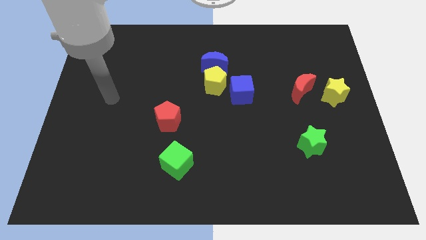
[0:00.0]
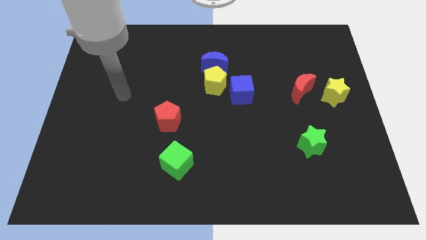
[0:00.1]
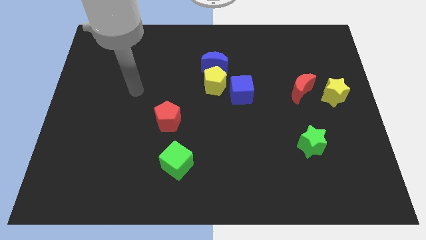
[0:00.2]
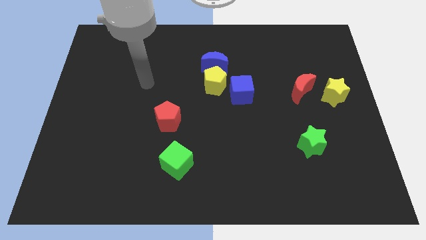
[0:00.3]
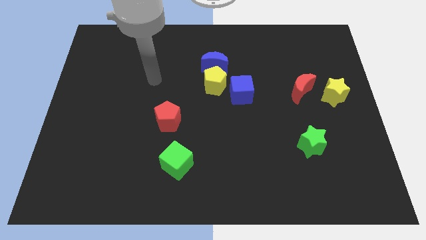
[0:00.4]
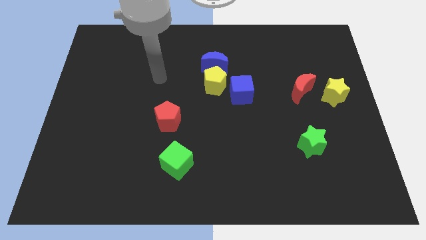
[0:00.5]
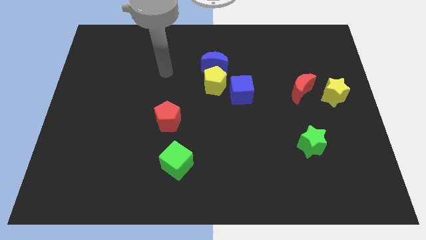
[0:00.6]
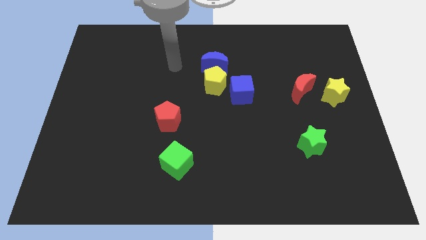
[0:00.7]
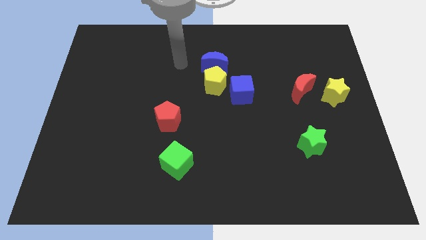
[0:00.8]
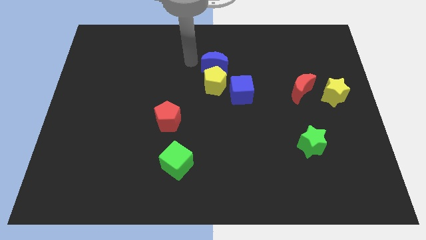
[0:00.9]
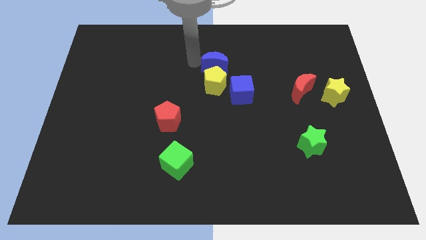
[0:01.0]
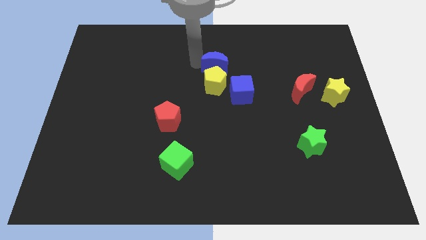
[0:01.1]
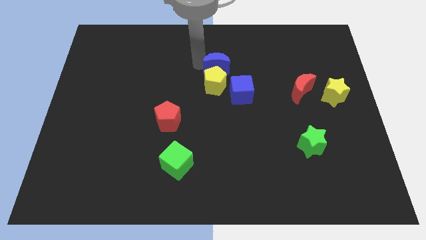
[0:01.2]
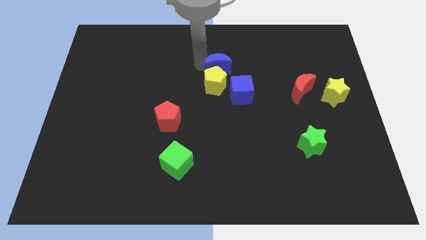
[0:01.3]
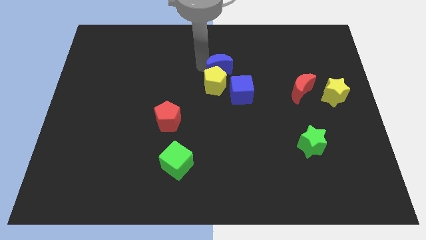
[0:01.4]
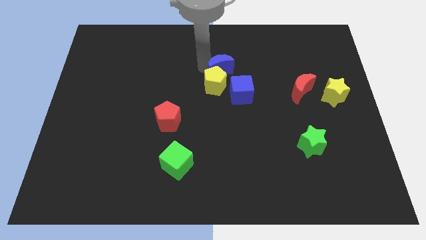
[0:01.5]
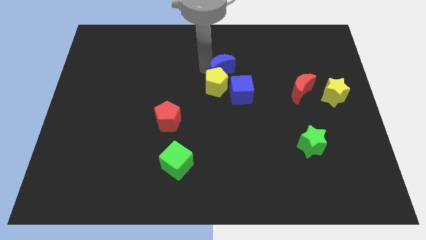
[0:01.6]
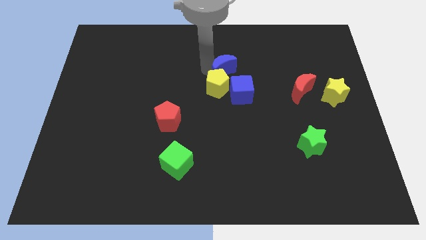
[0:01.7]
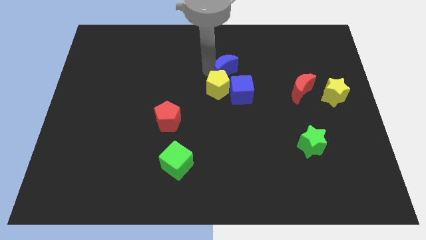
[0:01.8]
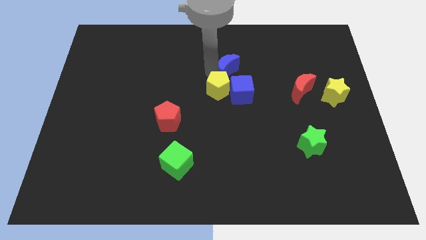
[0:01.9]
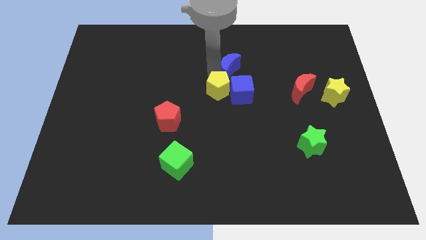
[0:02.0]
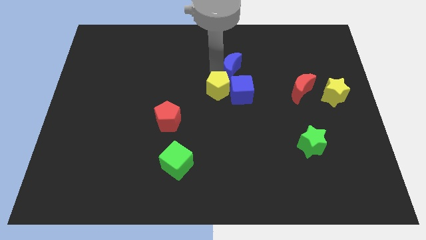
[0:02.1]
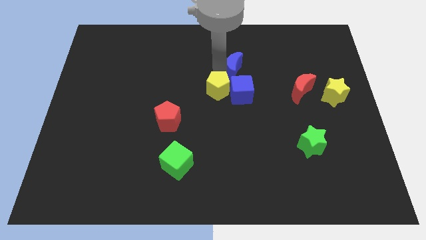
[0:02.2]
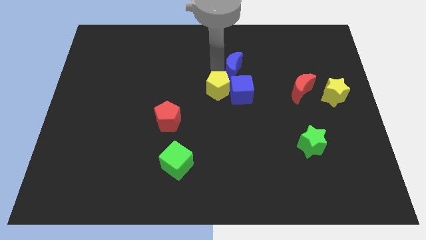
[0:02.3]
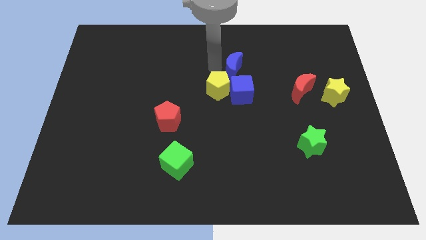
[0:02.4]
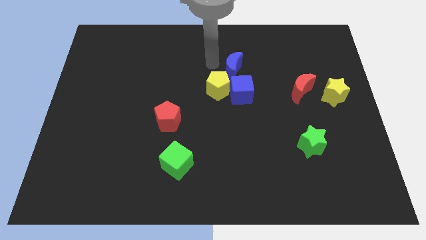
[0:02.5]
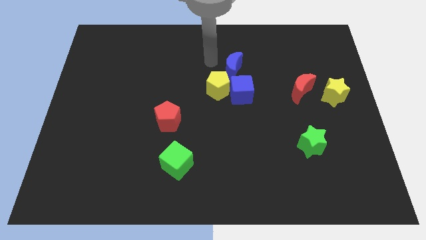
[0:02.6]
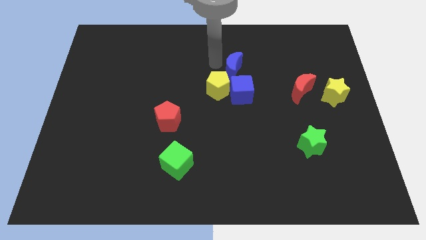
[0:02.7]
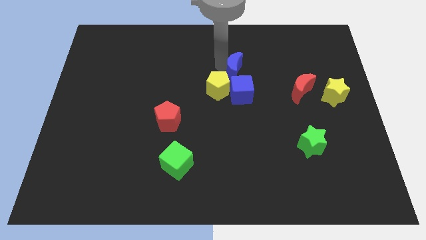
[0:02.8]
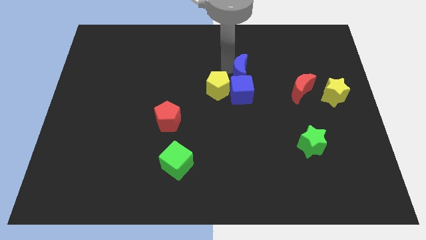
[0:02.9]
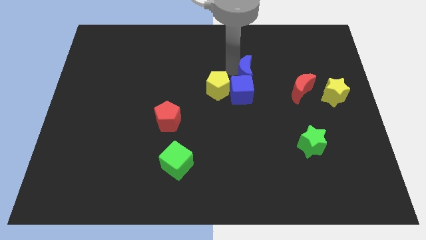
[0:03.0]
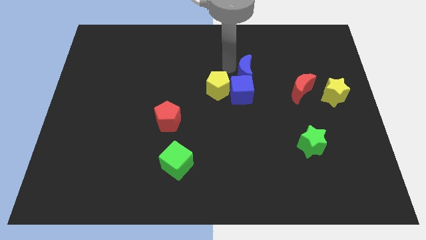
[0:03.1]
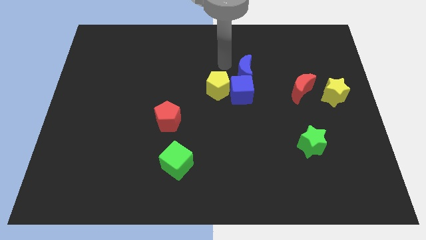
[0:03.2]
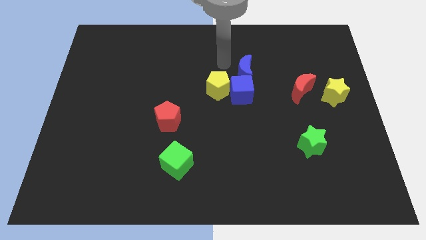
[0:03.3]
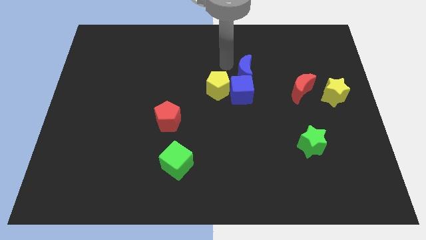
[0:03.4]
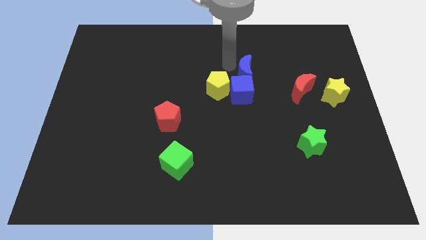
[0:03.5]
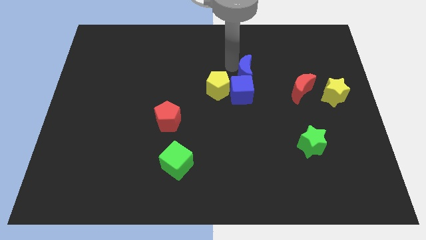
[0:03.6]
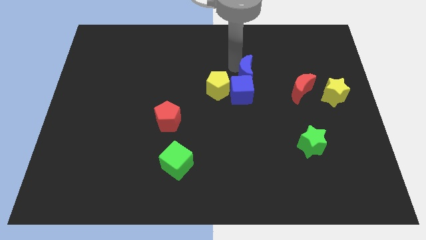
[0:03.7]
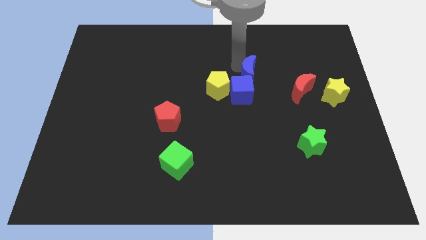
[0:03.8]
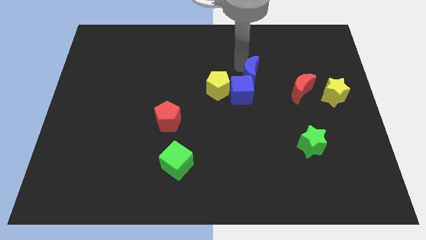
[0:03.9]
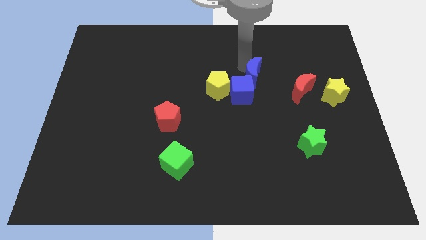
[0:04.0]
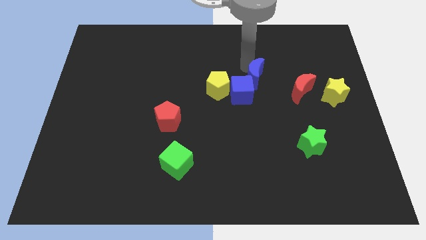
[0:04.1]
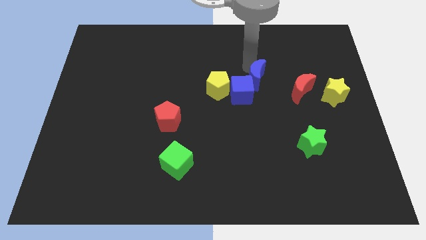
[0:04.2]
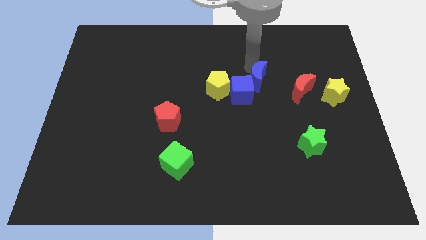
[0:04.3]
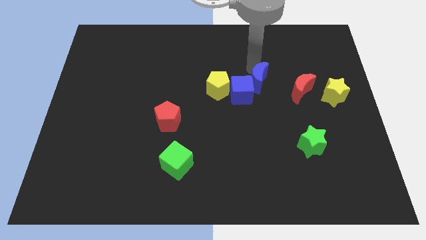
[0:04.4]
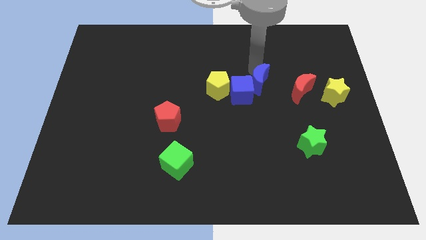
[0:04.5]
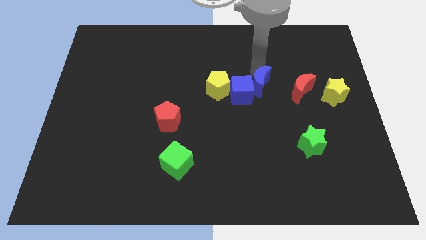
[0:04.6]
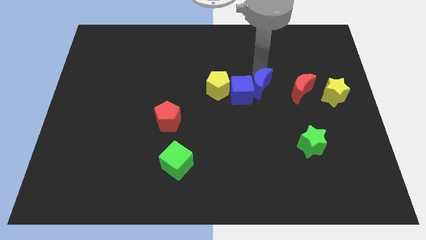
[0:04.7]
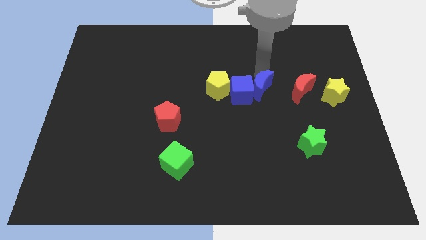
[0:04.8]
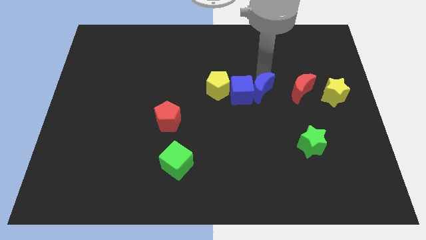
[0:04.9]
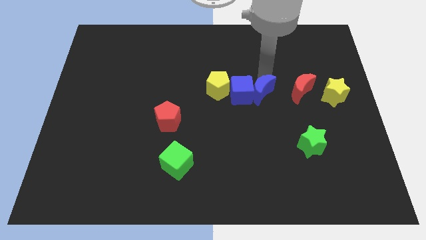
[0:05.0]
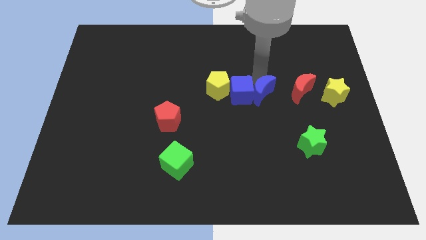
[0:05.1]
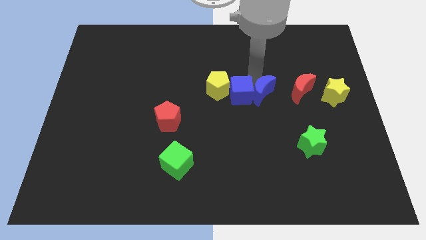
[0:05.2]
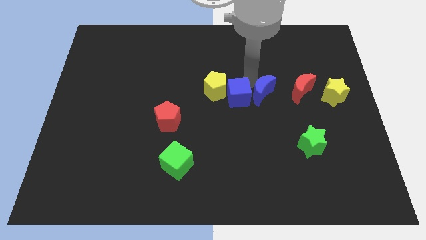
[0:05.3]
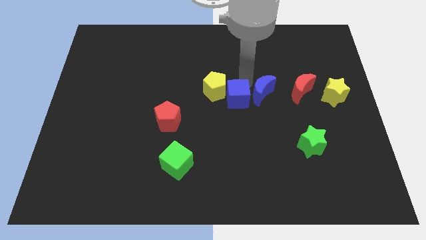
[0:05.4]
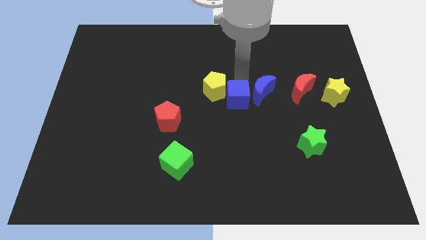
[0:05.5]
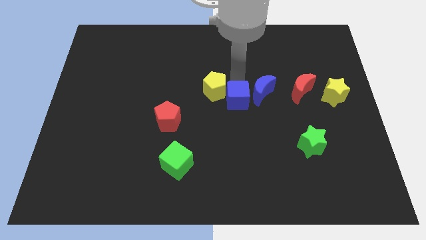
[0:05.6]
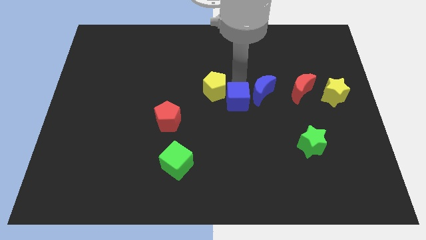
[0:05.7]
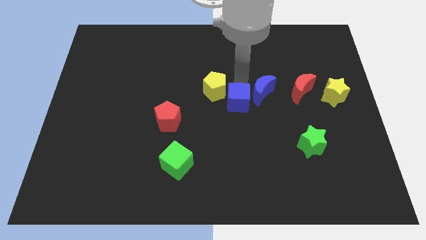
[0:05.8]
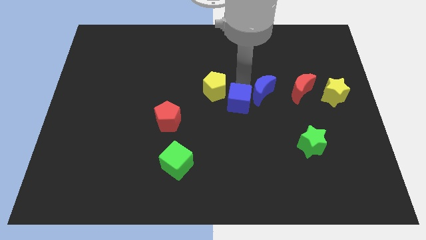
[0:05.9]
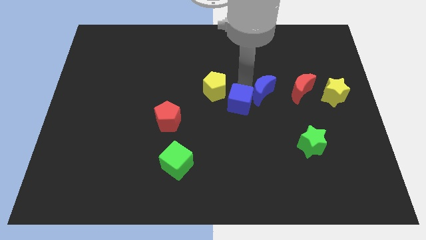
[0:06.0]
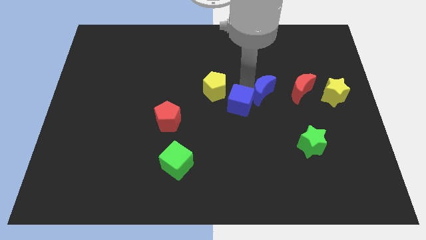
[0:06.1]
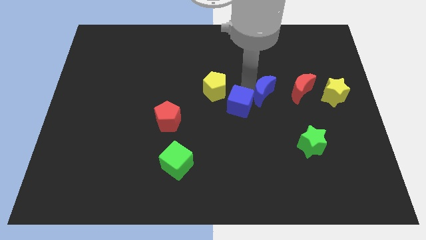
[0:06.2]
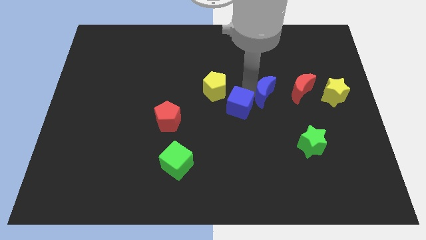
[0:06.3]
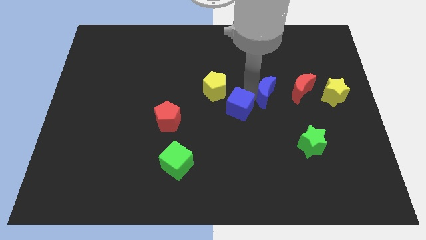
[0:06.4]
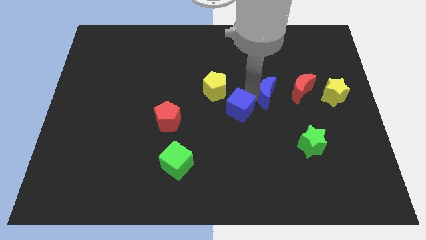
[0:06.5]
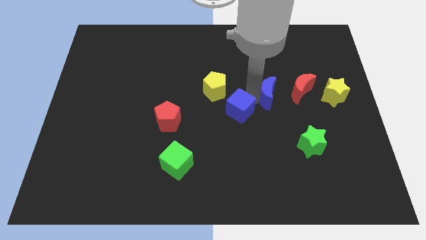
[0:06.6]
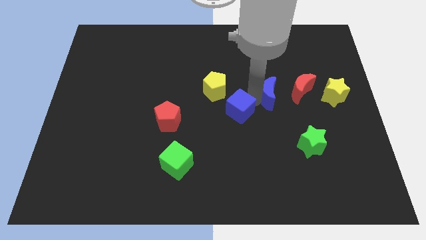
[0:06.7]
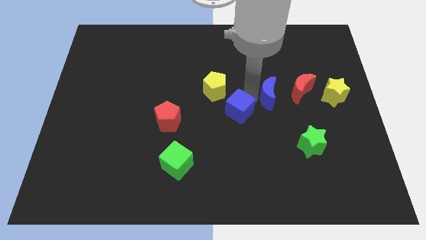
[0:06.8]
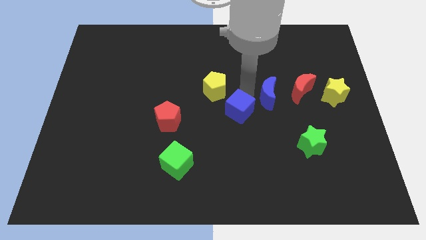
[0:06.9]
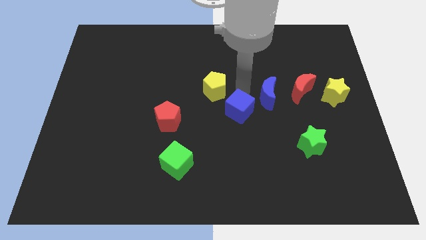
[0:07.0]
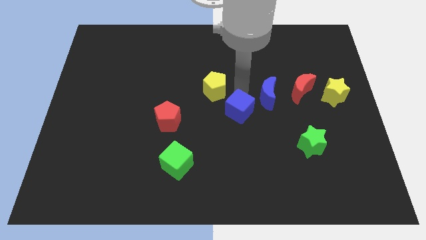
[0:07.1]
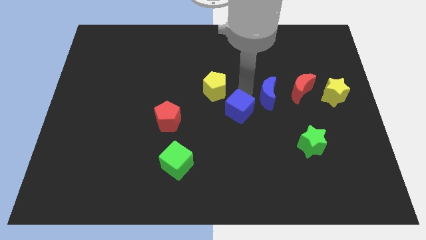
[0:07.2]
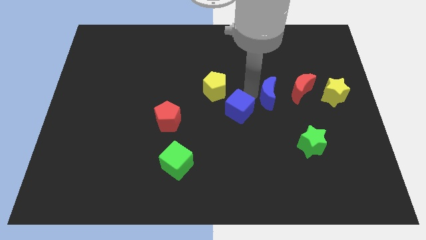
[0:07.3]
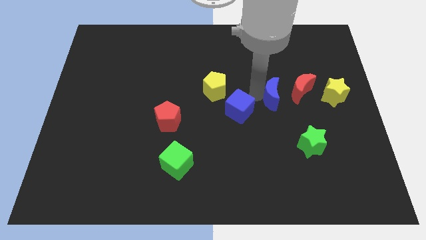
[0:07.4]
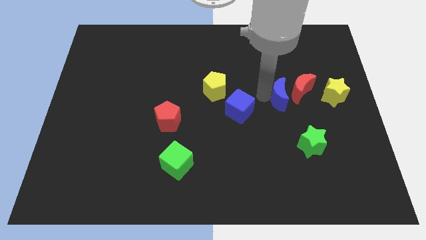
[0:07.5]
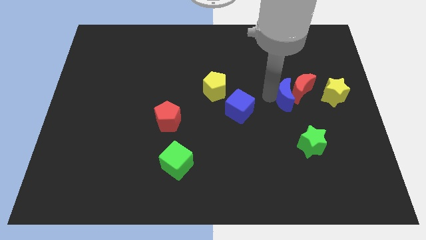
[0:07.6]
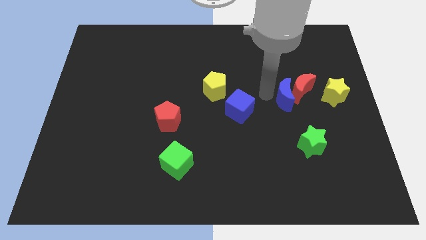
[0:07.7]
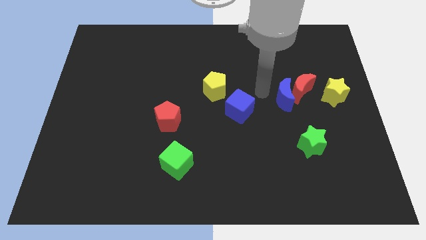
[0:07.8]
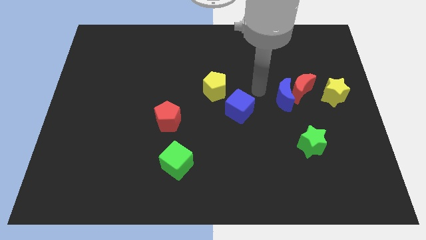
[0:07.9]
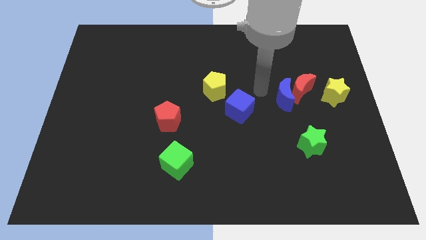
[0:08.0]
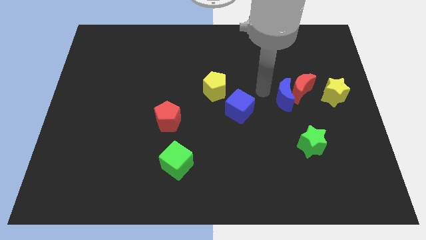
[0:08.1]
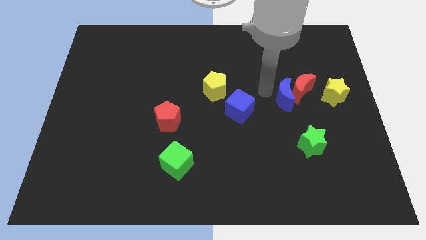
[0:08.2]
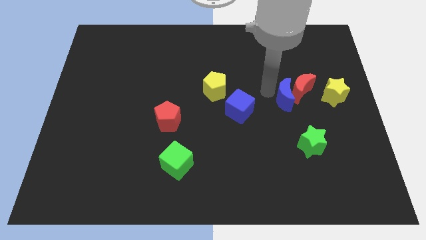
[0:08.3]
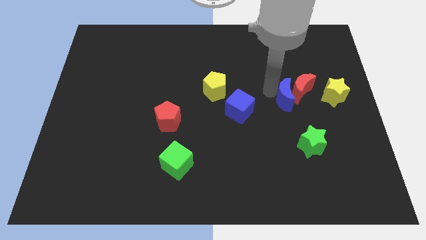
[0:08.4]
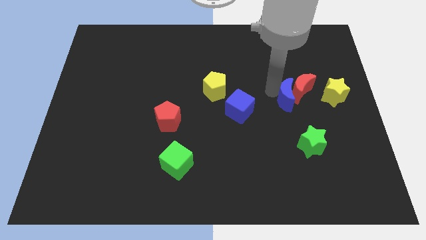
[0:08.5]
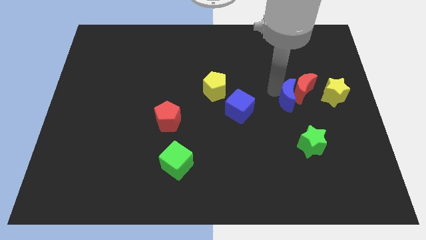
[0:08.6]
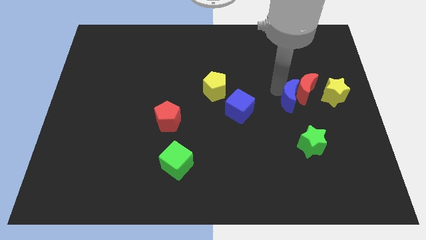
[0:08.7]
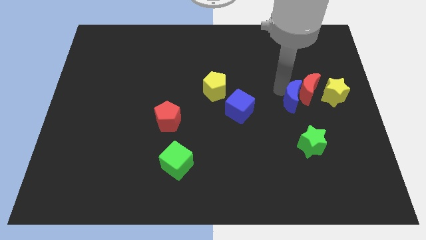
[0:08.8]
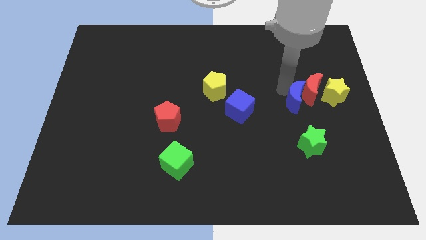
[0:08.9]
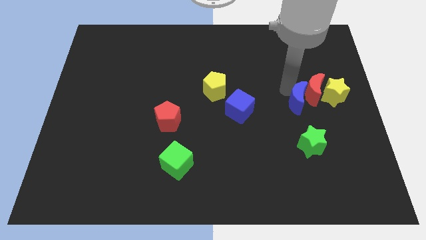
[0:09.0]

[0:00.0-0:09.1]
put the blue moon to the bottom left side of the yellow star
